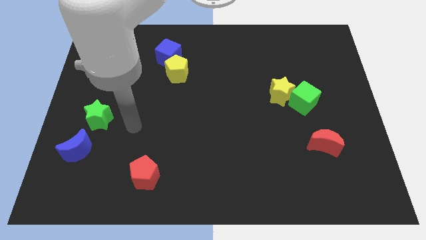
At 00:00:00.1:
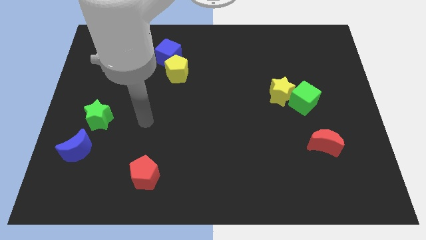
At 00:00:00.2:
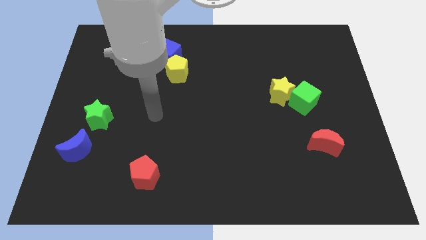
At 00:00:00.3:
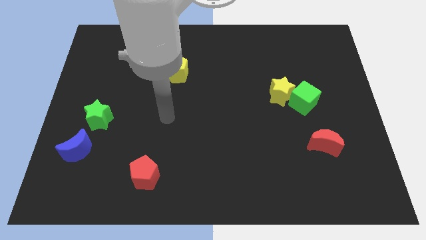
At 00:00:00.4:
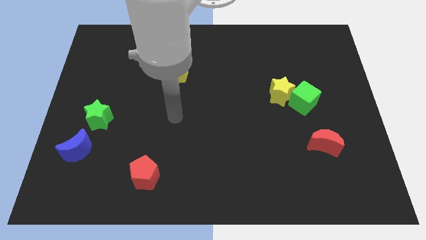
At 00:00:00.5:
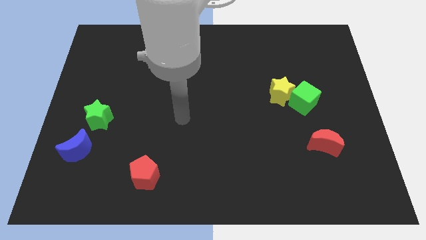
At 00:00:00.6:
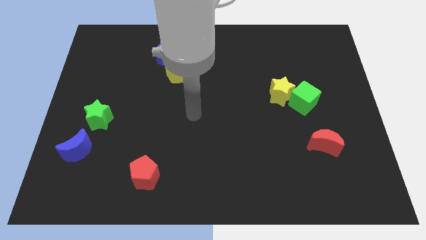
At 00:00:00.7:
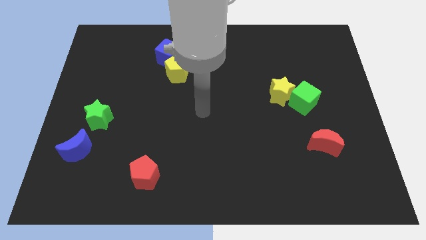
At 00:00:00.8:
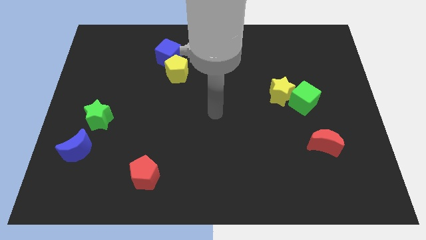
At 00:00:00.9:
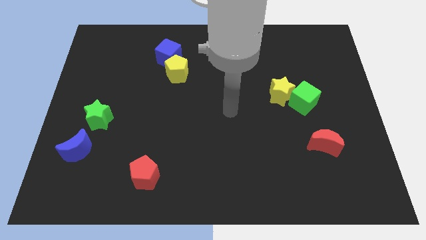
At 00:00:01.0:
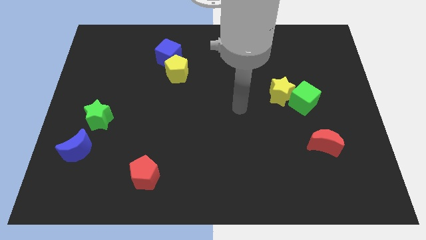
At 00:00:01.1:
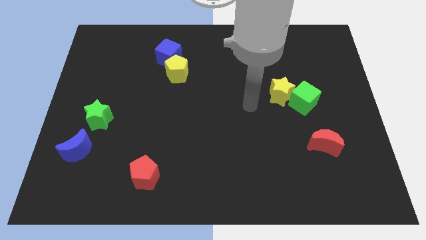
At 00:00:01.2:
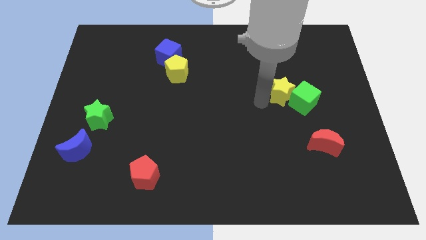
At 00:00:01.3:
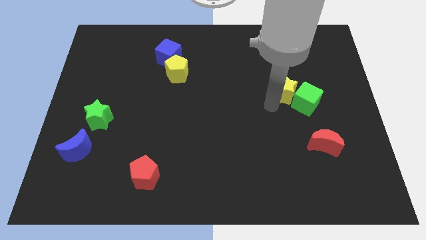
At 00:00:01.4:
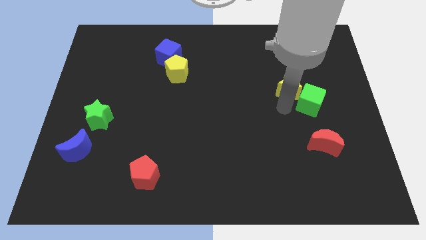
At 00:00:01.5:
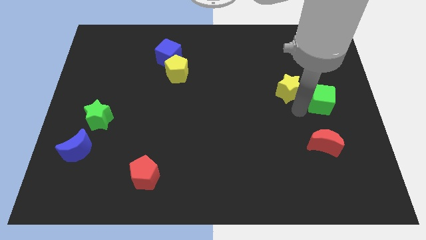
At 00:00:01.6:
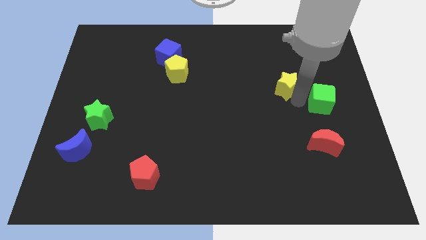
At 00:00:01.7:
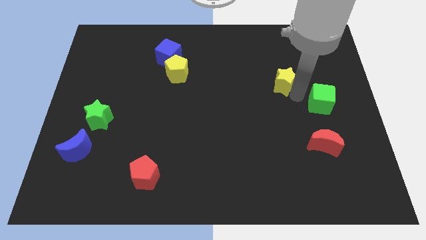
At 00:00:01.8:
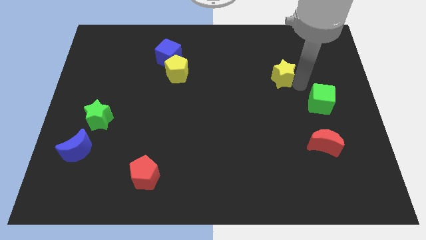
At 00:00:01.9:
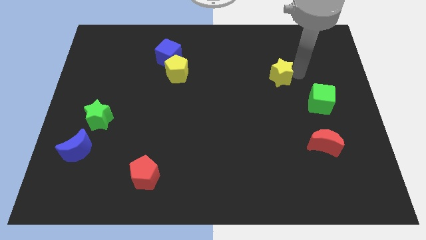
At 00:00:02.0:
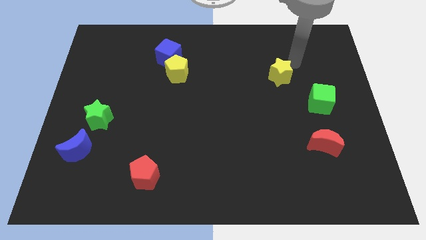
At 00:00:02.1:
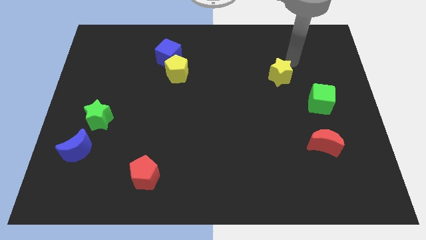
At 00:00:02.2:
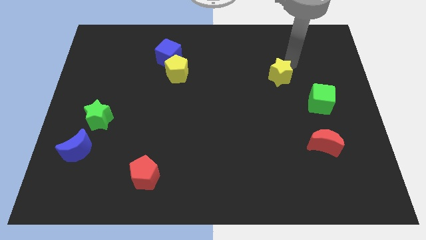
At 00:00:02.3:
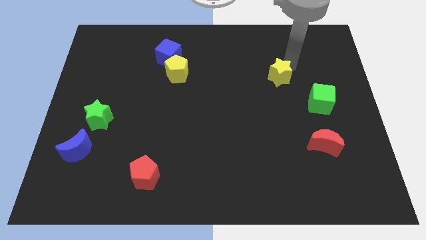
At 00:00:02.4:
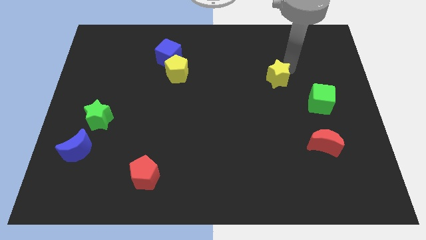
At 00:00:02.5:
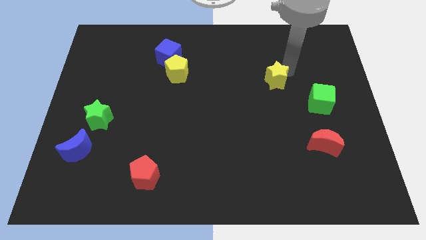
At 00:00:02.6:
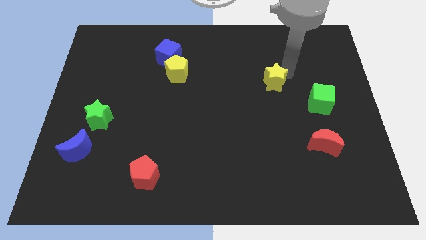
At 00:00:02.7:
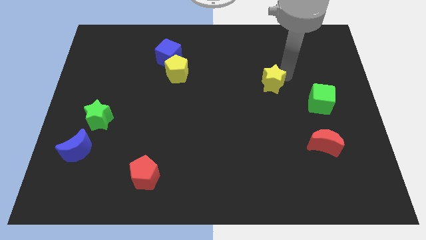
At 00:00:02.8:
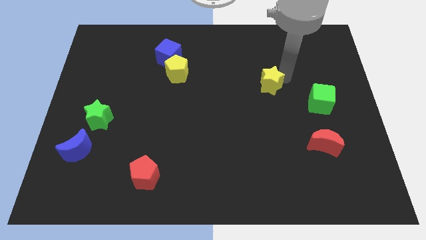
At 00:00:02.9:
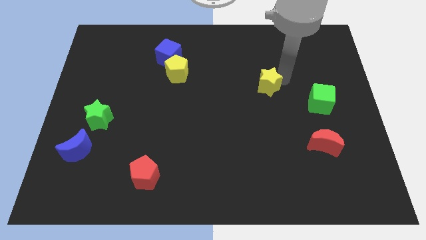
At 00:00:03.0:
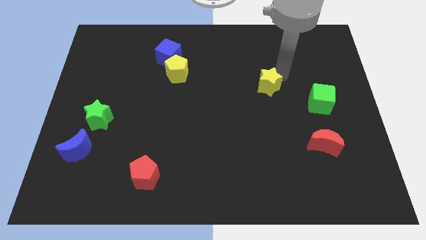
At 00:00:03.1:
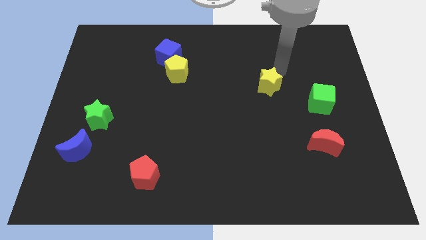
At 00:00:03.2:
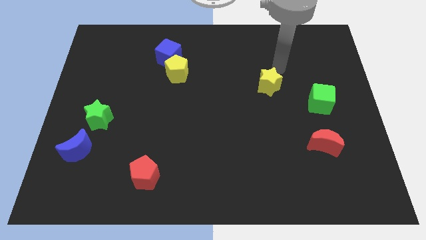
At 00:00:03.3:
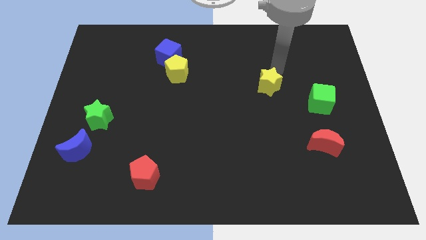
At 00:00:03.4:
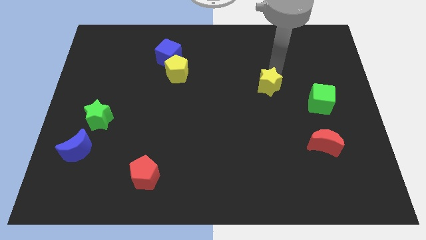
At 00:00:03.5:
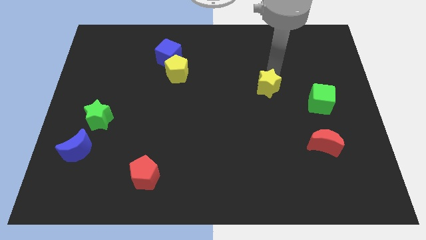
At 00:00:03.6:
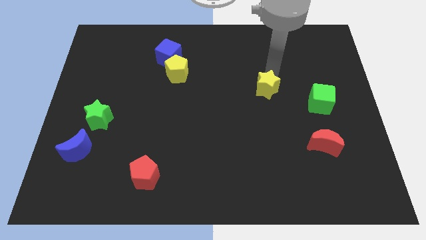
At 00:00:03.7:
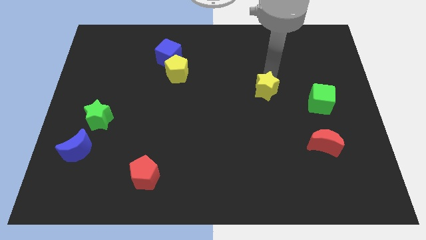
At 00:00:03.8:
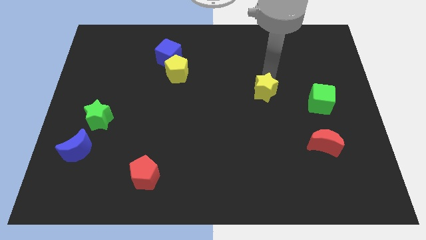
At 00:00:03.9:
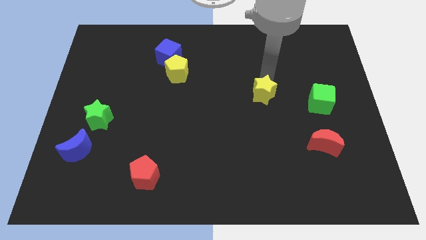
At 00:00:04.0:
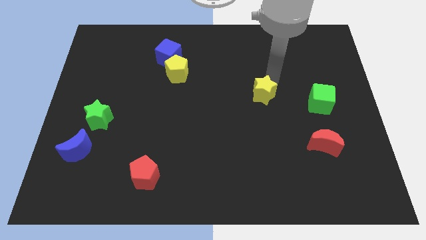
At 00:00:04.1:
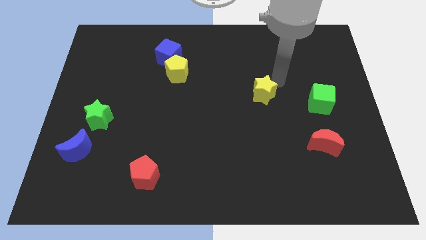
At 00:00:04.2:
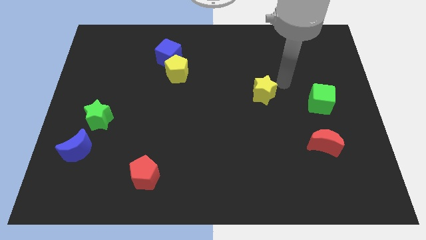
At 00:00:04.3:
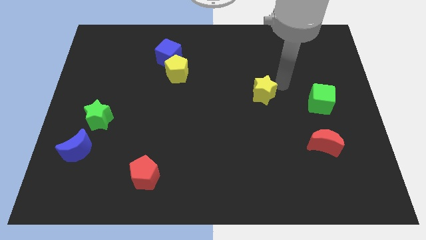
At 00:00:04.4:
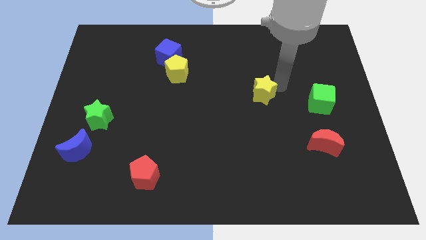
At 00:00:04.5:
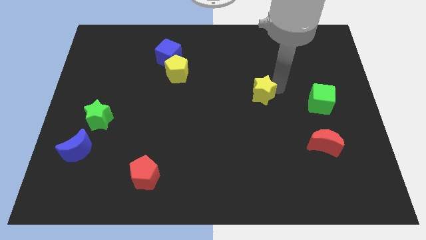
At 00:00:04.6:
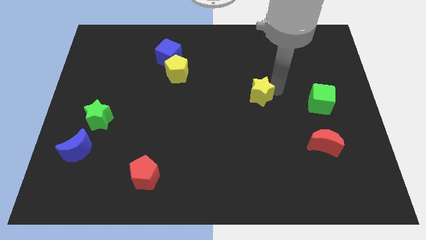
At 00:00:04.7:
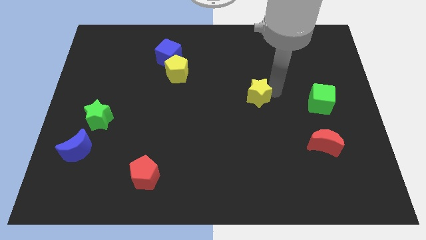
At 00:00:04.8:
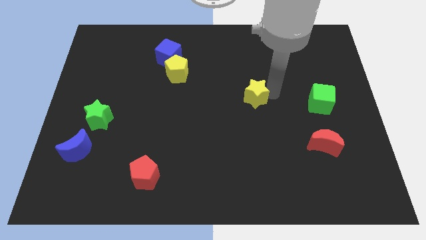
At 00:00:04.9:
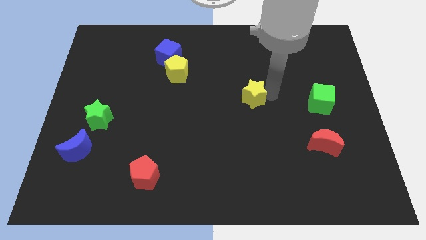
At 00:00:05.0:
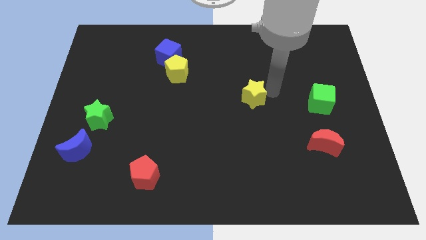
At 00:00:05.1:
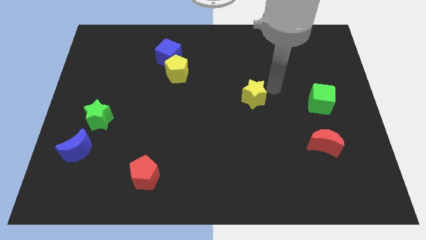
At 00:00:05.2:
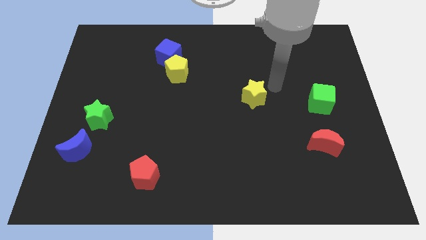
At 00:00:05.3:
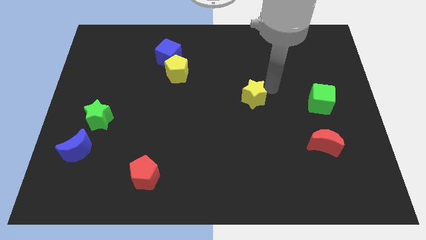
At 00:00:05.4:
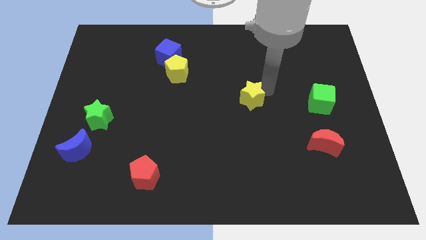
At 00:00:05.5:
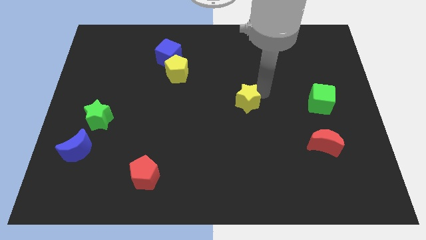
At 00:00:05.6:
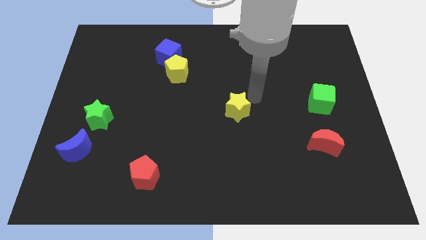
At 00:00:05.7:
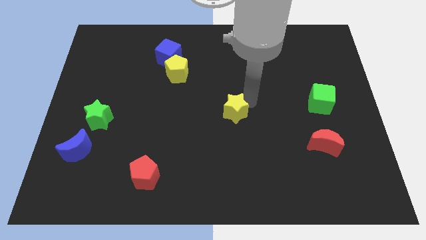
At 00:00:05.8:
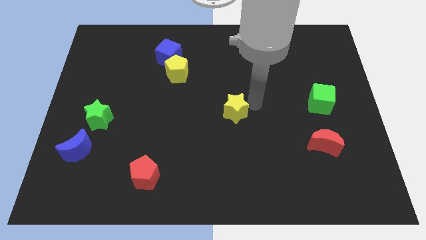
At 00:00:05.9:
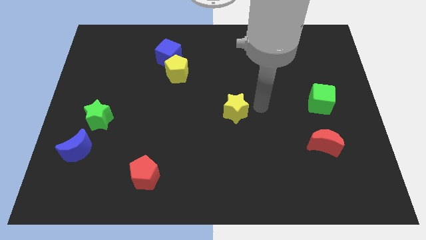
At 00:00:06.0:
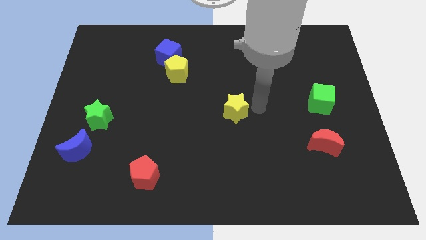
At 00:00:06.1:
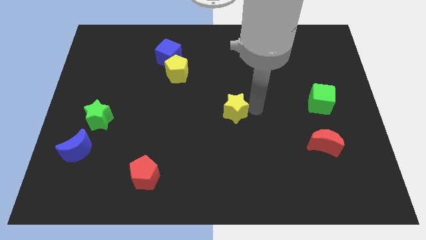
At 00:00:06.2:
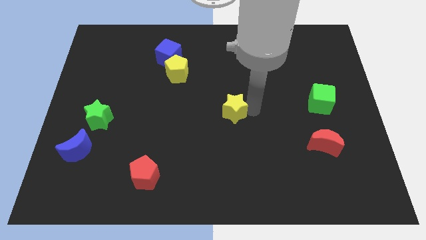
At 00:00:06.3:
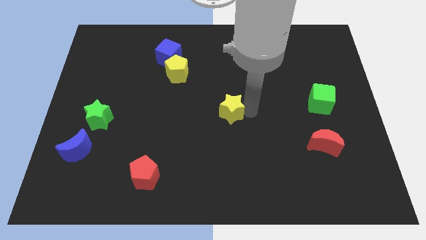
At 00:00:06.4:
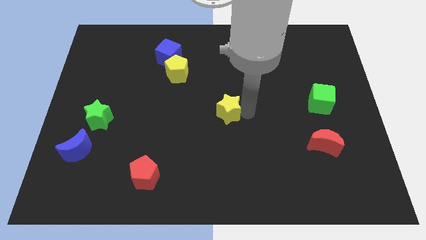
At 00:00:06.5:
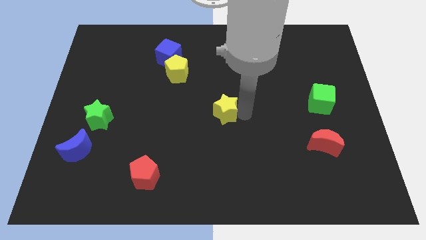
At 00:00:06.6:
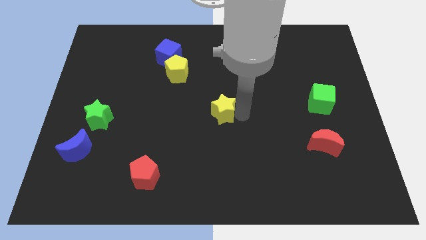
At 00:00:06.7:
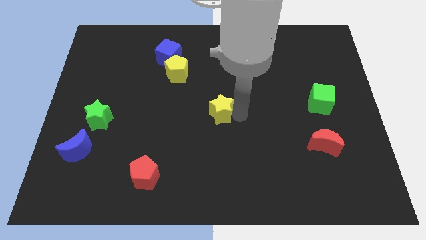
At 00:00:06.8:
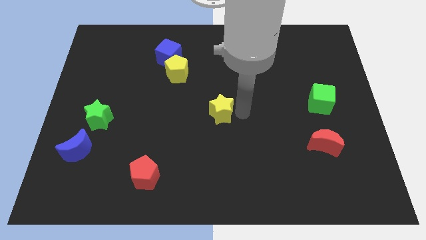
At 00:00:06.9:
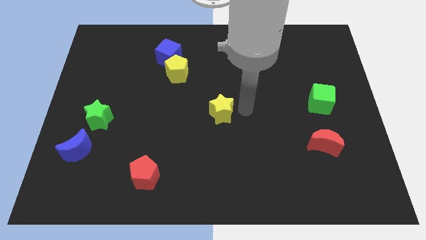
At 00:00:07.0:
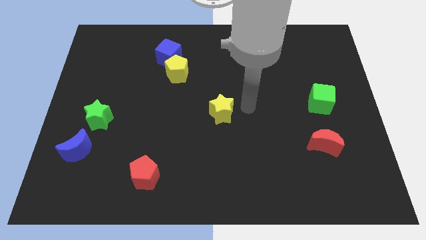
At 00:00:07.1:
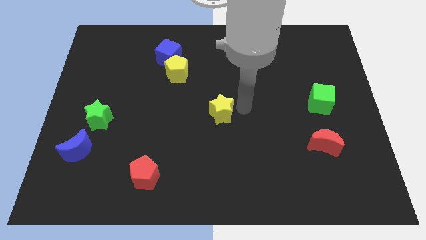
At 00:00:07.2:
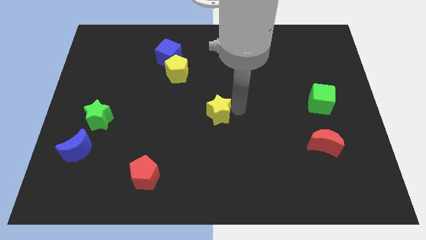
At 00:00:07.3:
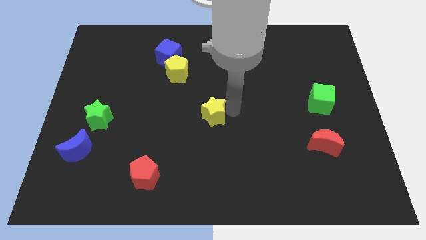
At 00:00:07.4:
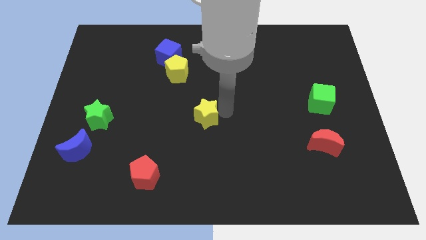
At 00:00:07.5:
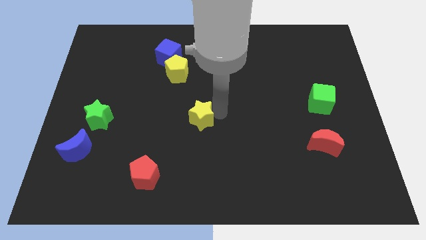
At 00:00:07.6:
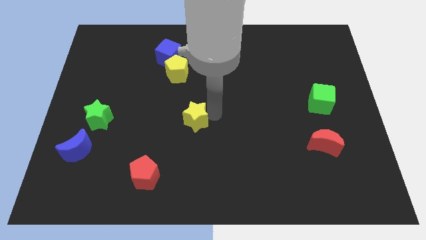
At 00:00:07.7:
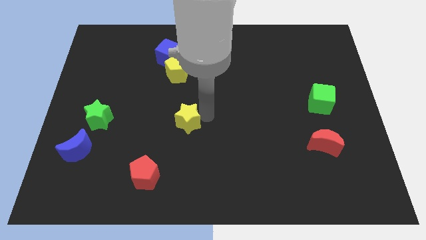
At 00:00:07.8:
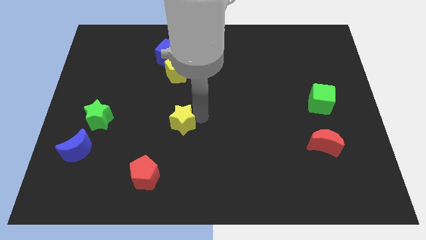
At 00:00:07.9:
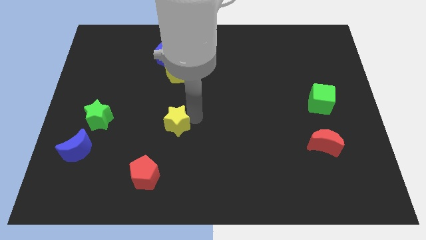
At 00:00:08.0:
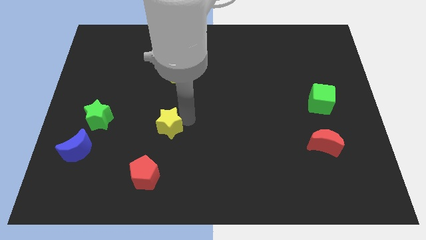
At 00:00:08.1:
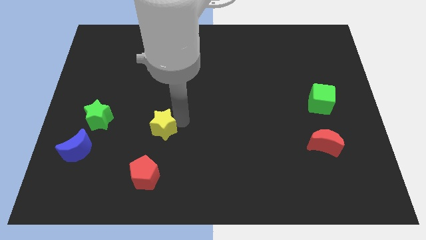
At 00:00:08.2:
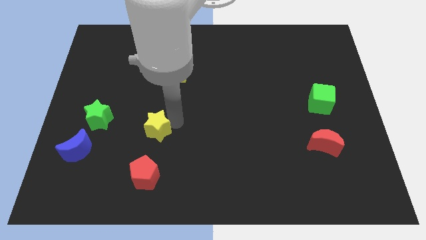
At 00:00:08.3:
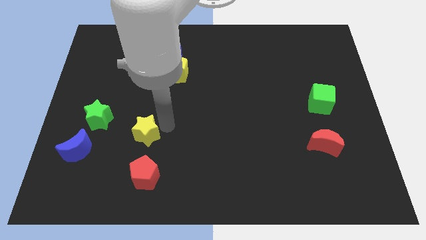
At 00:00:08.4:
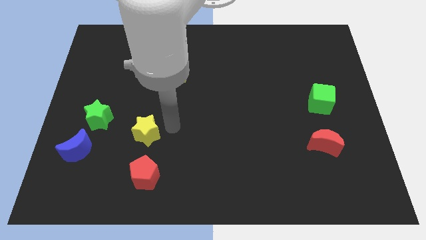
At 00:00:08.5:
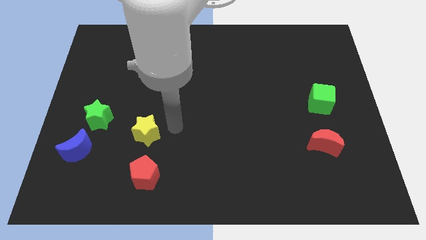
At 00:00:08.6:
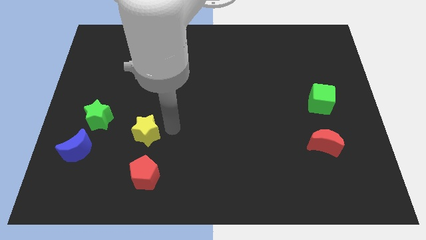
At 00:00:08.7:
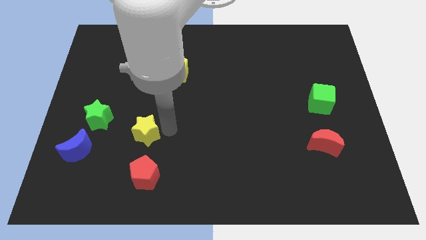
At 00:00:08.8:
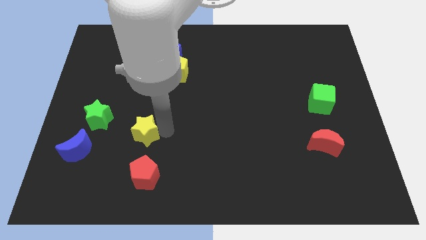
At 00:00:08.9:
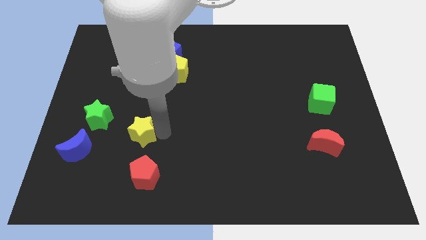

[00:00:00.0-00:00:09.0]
put the yellow star to the bottom right of the green star
